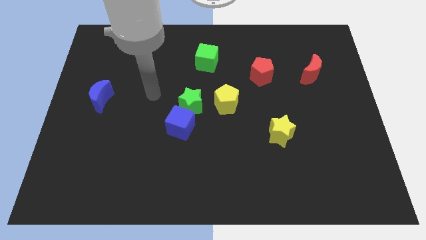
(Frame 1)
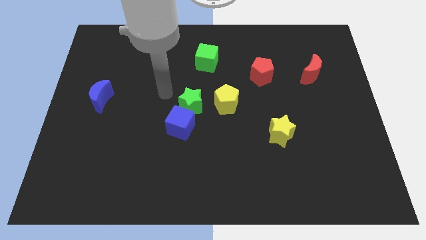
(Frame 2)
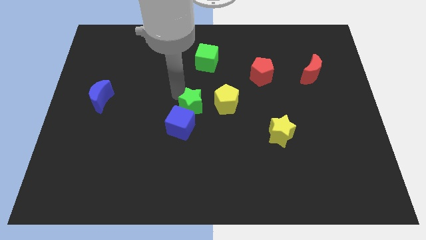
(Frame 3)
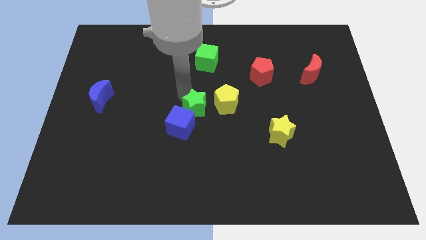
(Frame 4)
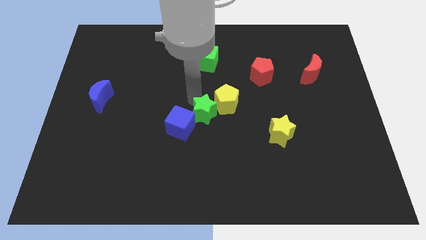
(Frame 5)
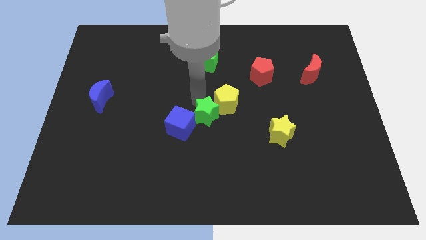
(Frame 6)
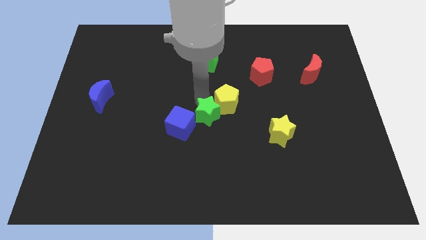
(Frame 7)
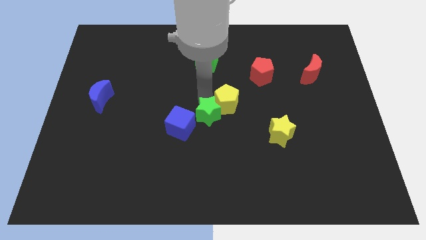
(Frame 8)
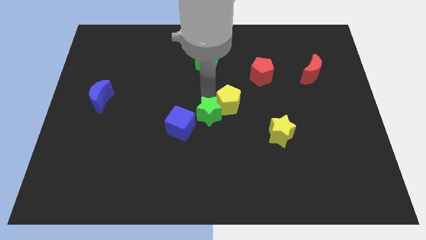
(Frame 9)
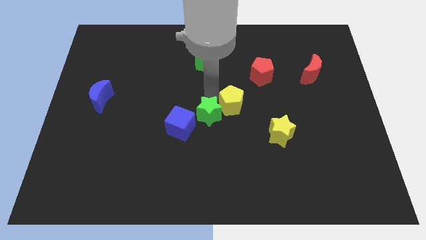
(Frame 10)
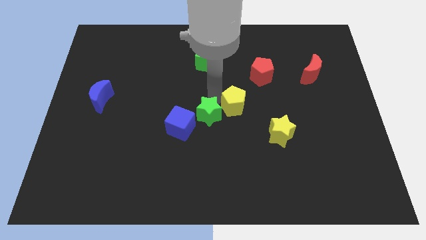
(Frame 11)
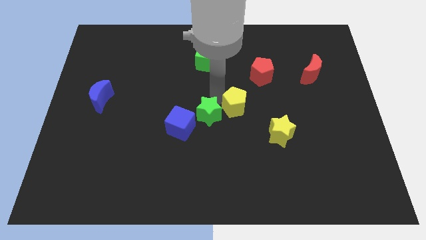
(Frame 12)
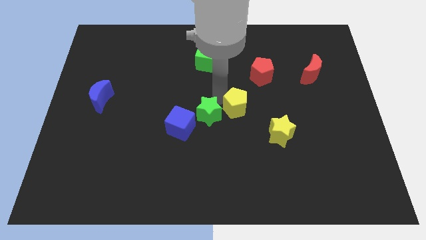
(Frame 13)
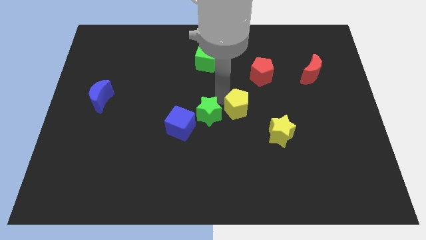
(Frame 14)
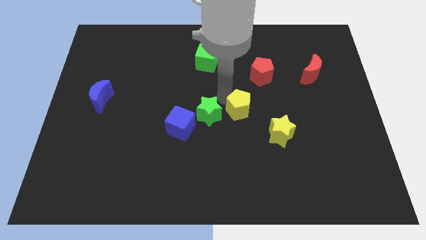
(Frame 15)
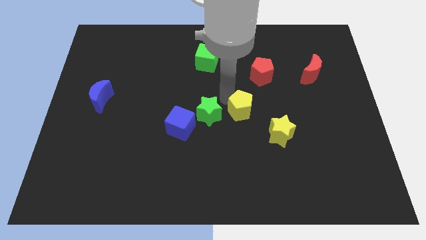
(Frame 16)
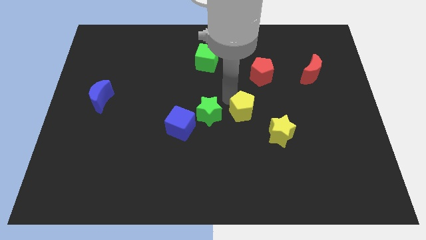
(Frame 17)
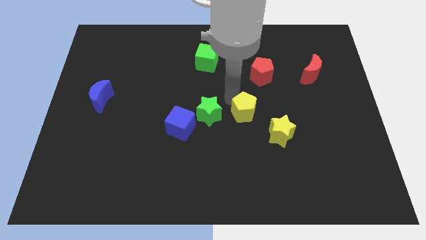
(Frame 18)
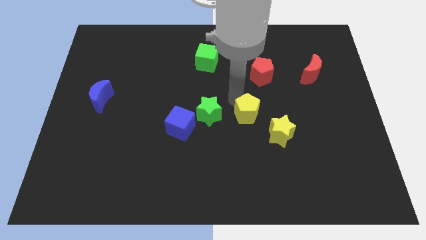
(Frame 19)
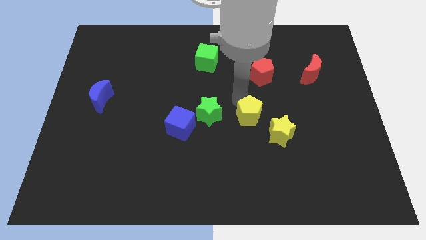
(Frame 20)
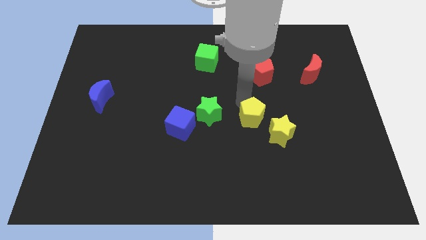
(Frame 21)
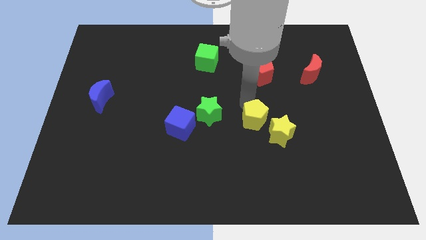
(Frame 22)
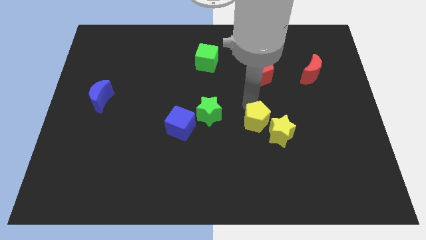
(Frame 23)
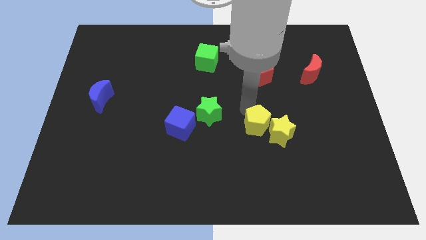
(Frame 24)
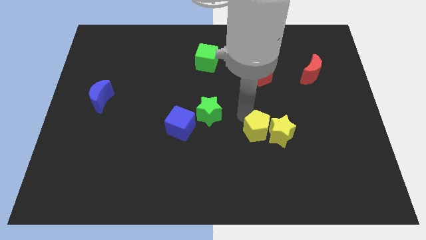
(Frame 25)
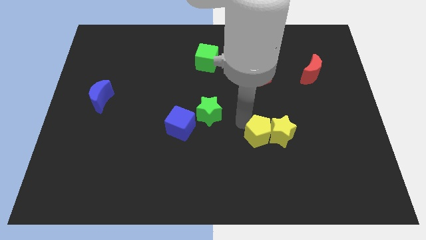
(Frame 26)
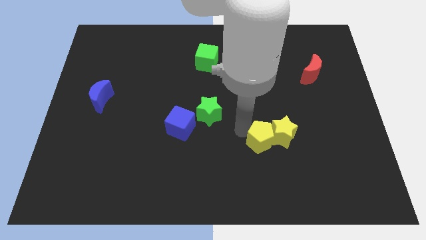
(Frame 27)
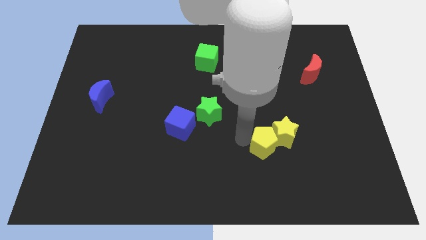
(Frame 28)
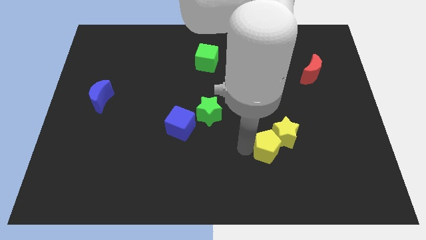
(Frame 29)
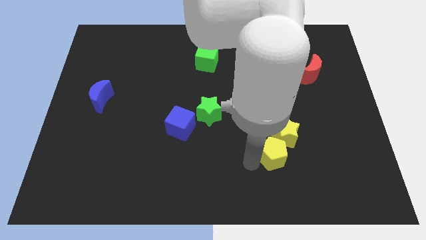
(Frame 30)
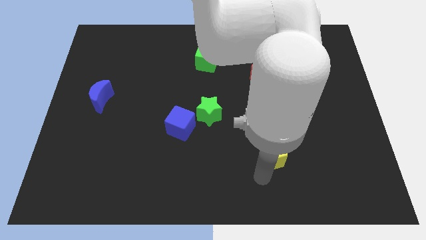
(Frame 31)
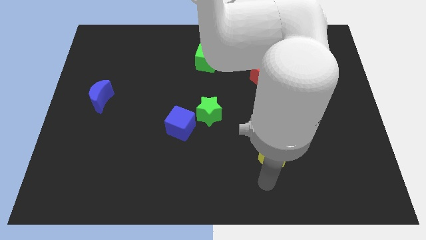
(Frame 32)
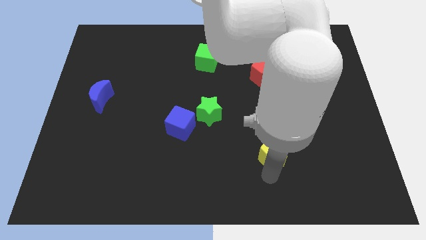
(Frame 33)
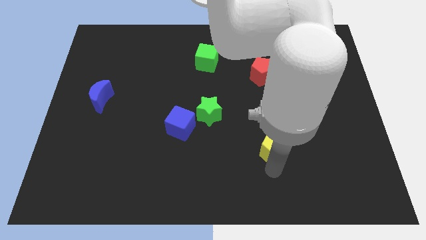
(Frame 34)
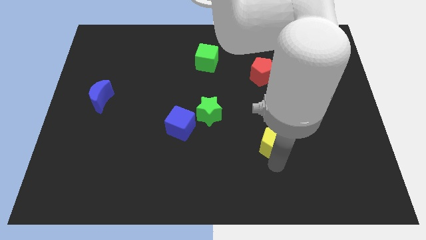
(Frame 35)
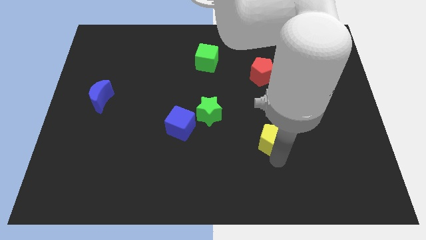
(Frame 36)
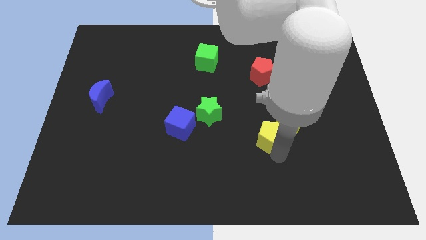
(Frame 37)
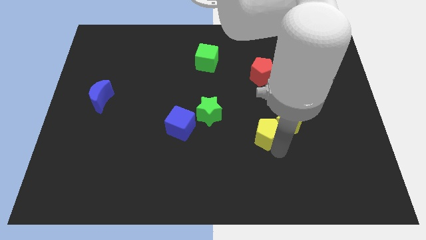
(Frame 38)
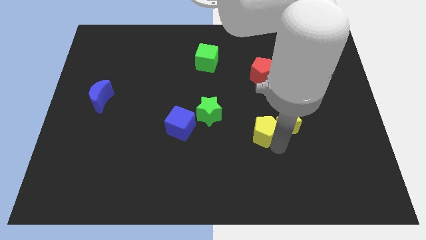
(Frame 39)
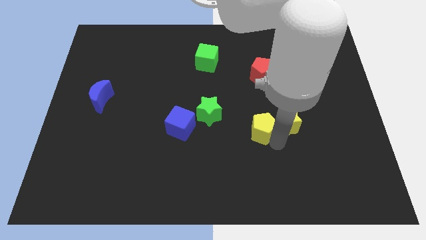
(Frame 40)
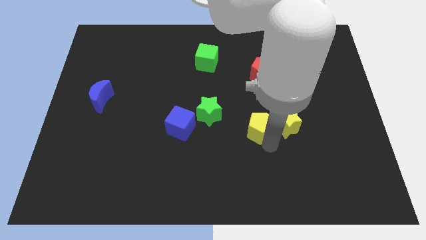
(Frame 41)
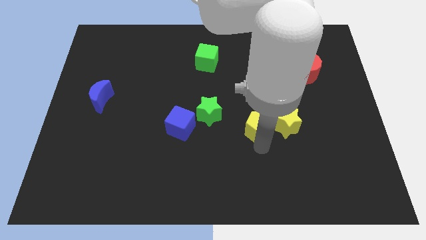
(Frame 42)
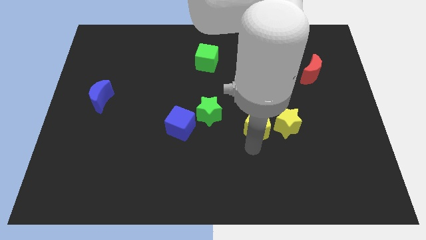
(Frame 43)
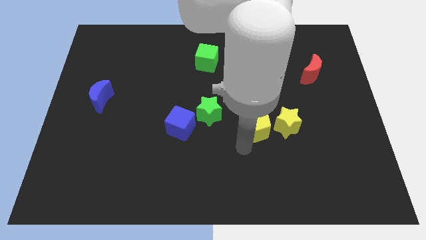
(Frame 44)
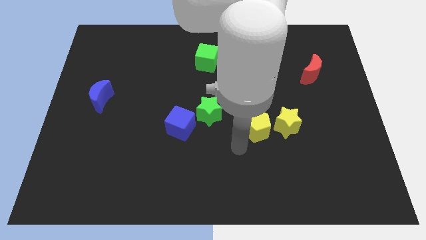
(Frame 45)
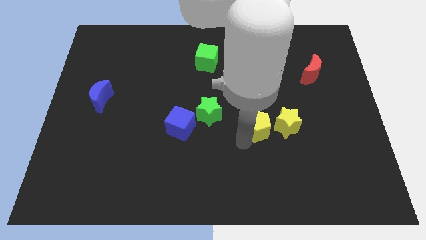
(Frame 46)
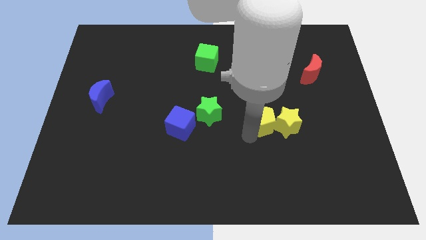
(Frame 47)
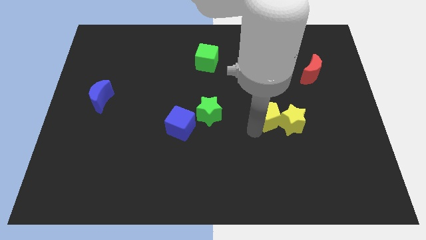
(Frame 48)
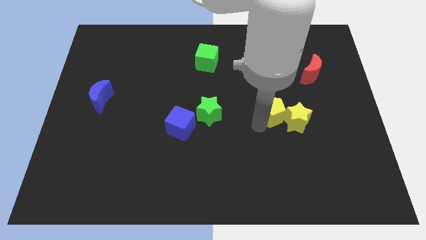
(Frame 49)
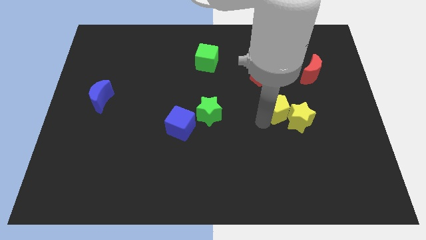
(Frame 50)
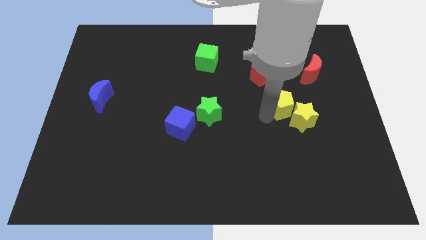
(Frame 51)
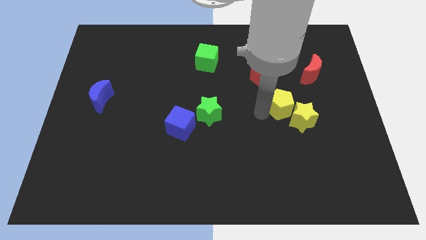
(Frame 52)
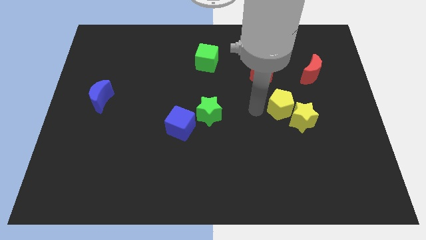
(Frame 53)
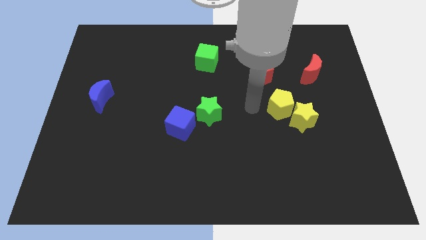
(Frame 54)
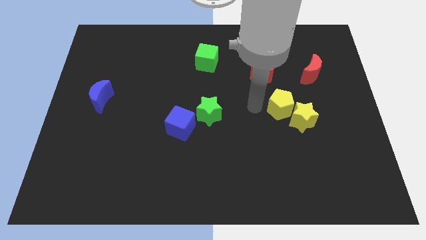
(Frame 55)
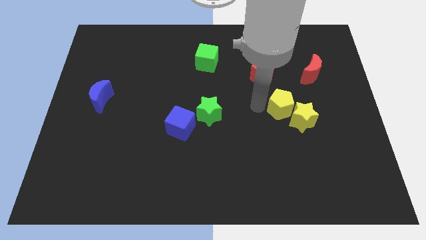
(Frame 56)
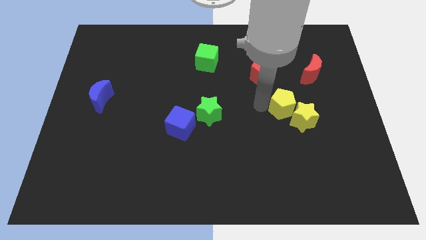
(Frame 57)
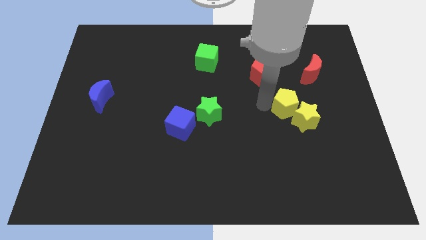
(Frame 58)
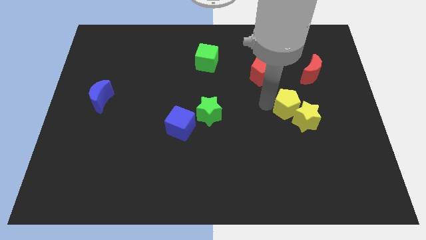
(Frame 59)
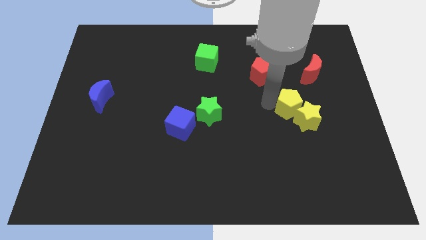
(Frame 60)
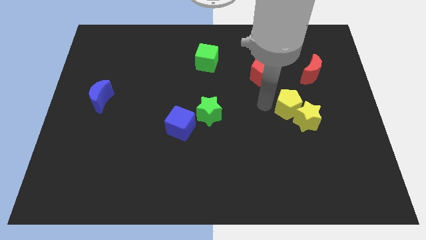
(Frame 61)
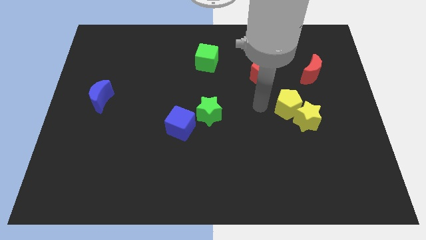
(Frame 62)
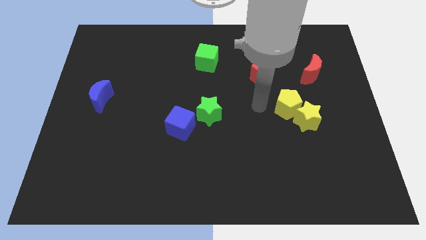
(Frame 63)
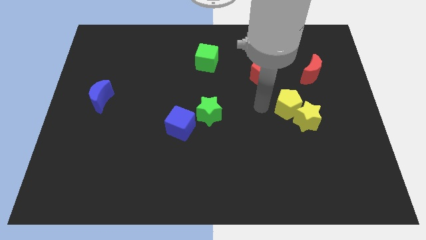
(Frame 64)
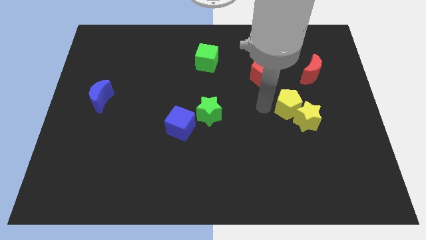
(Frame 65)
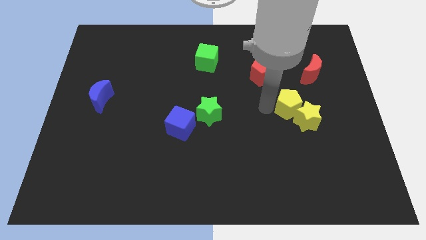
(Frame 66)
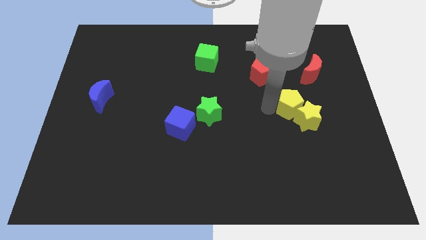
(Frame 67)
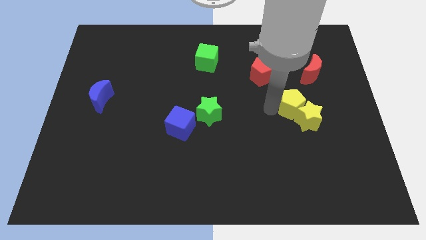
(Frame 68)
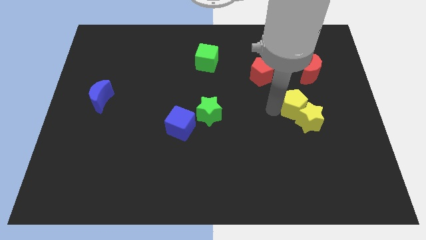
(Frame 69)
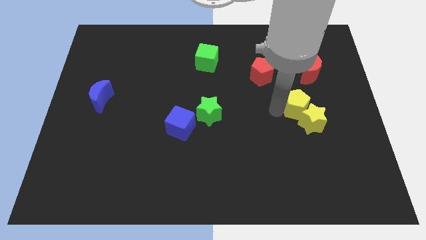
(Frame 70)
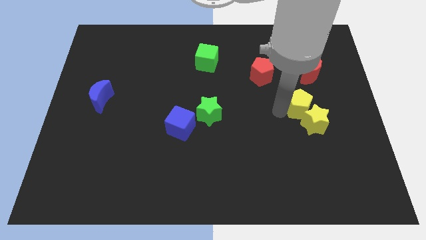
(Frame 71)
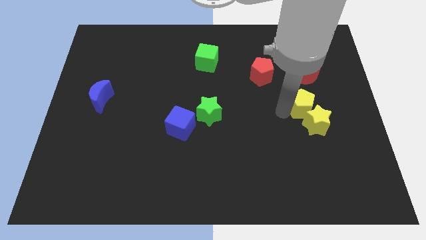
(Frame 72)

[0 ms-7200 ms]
move the yellow pentagon to the bottom side of the red moon
